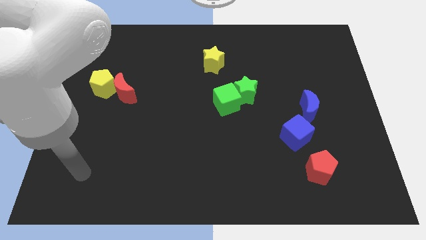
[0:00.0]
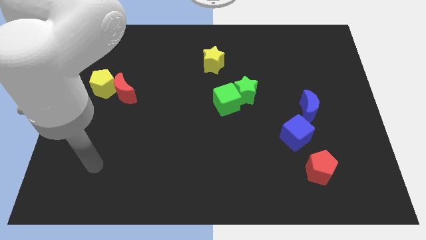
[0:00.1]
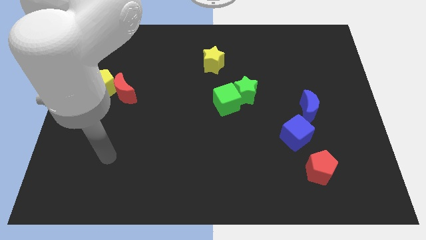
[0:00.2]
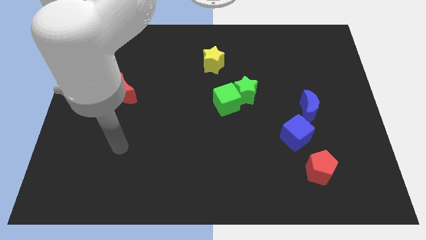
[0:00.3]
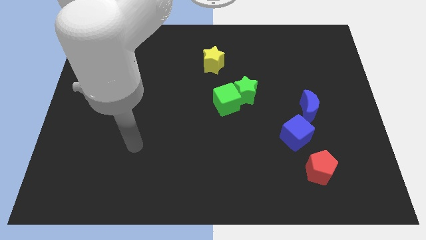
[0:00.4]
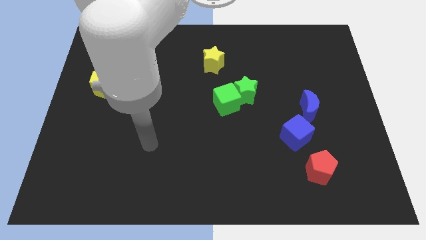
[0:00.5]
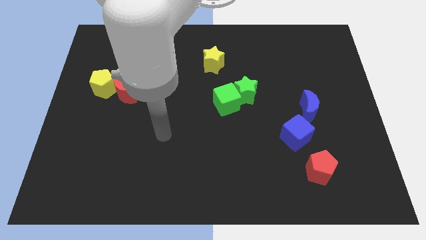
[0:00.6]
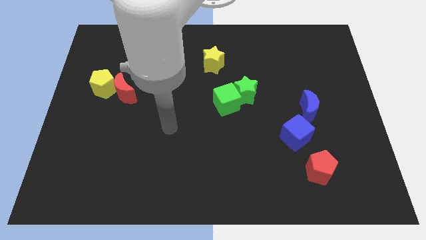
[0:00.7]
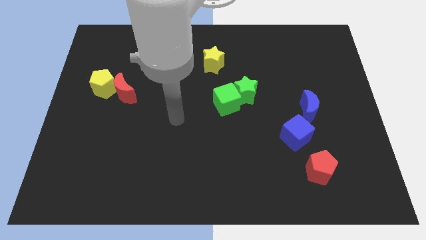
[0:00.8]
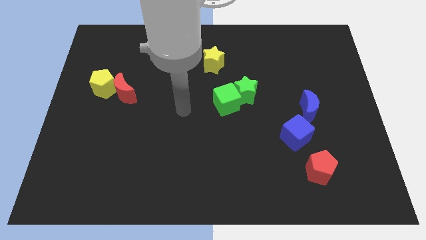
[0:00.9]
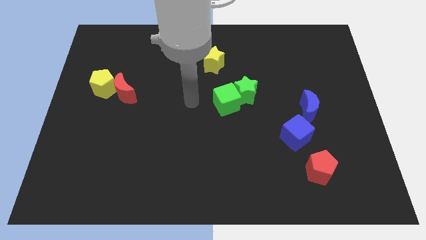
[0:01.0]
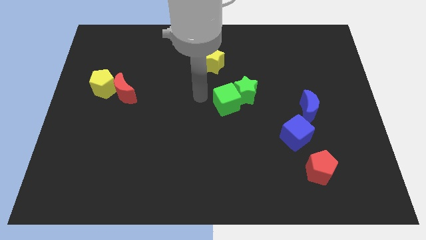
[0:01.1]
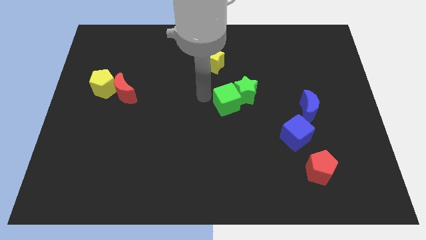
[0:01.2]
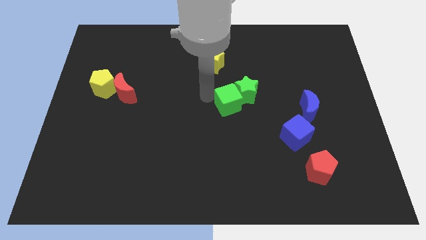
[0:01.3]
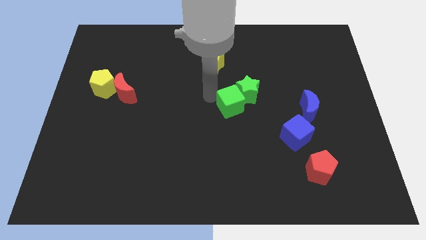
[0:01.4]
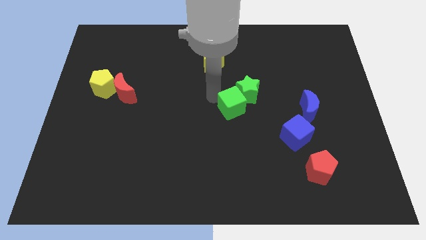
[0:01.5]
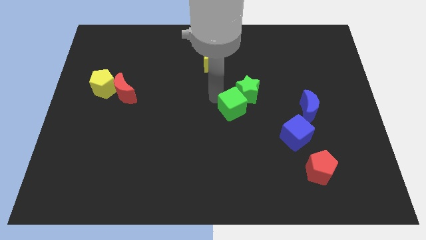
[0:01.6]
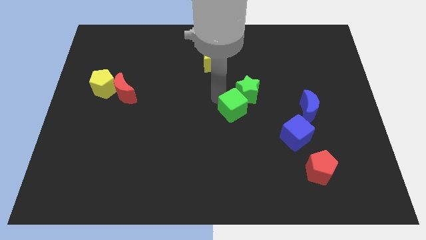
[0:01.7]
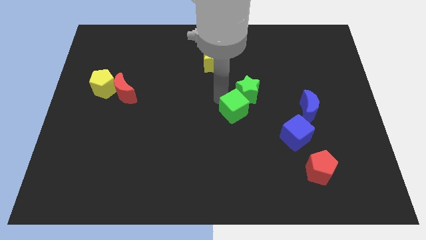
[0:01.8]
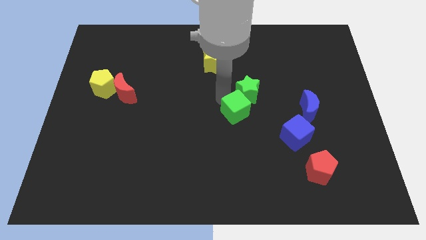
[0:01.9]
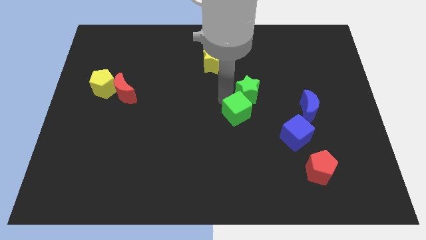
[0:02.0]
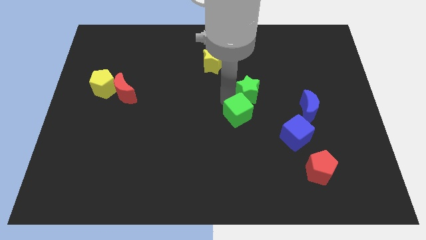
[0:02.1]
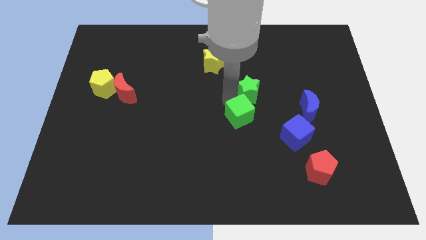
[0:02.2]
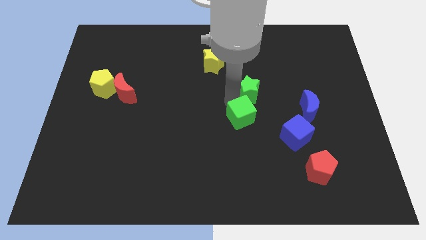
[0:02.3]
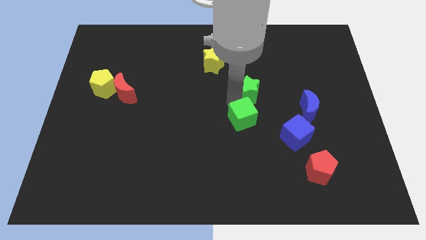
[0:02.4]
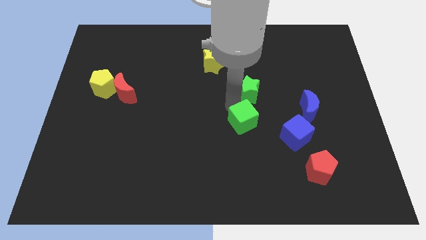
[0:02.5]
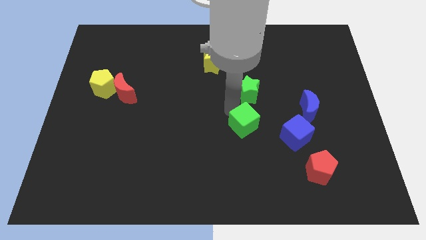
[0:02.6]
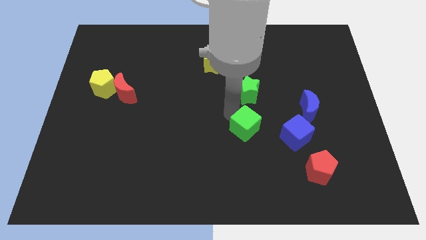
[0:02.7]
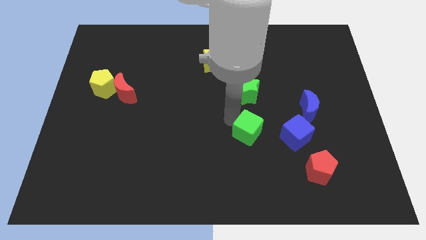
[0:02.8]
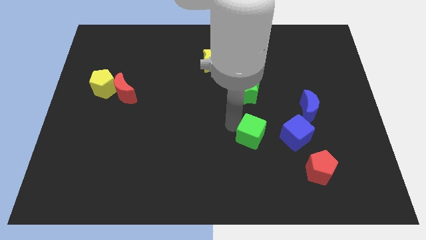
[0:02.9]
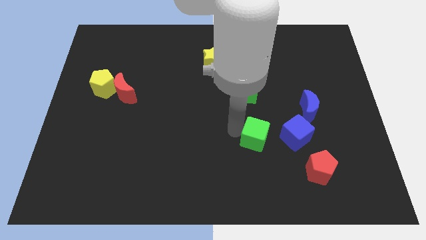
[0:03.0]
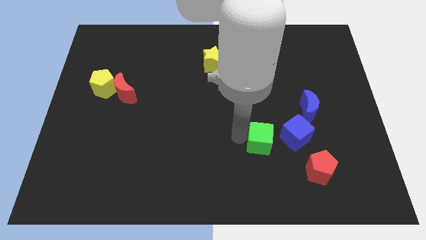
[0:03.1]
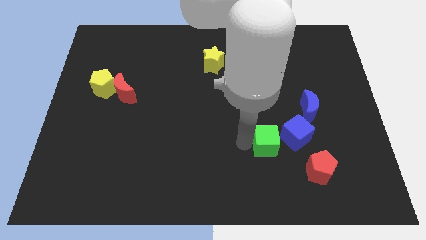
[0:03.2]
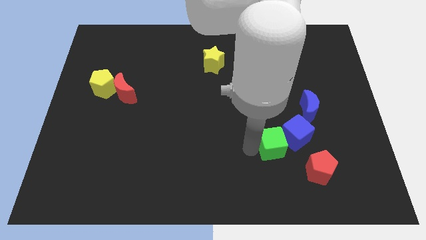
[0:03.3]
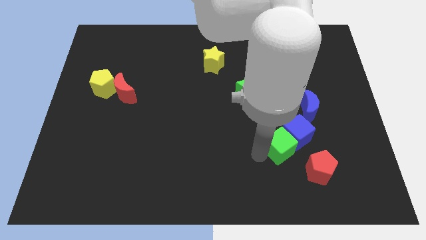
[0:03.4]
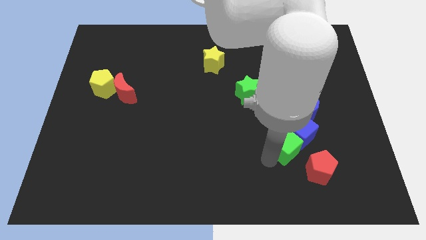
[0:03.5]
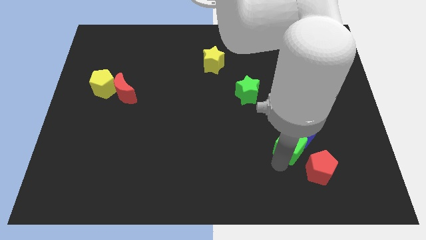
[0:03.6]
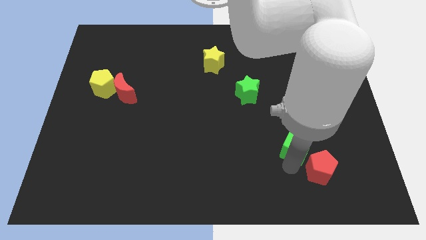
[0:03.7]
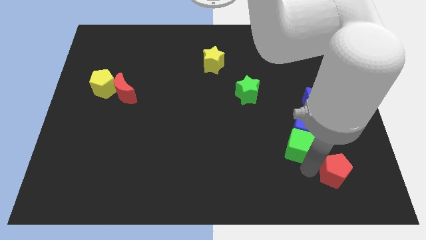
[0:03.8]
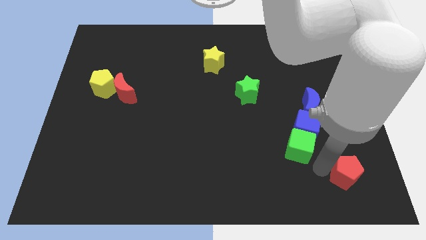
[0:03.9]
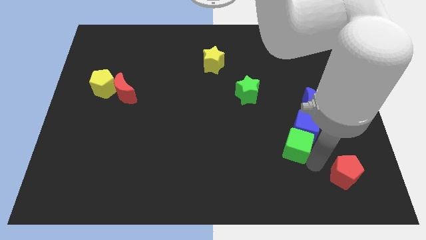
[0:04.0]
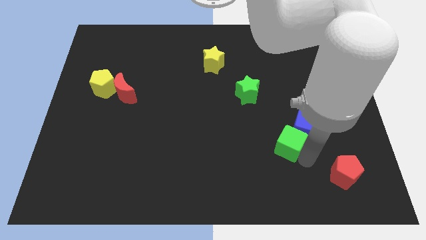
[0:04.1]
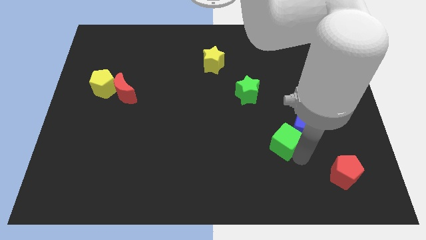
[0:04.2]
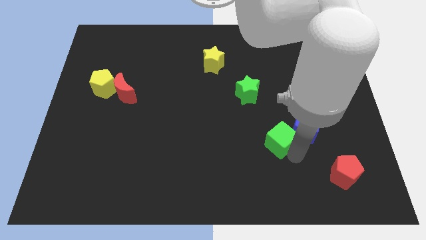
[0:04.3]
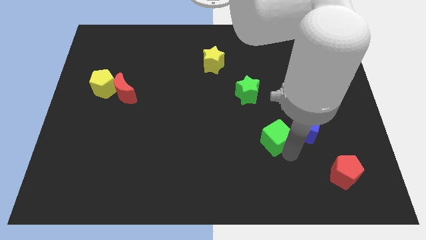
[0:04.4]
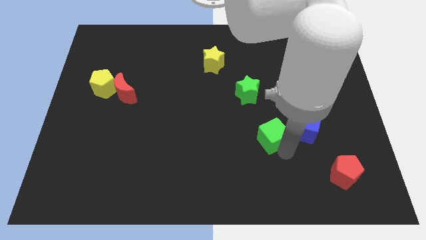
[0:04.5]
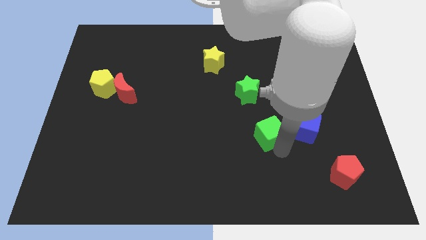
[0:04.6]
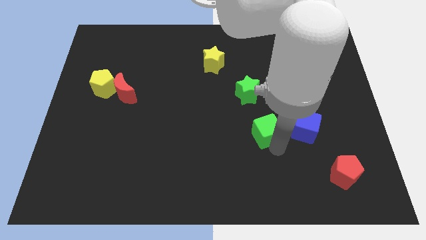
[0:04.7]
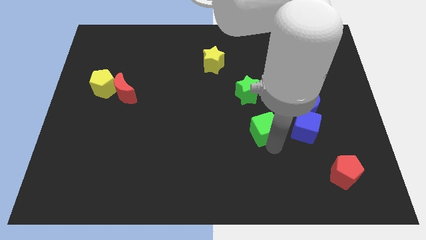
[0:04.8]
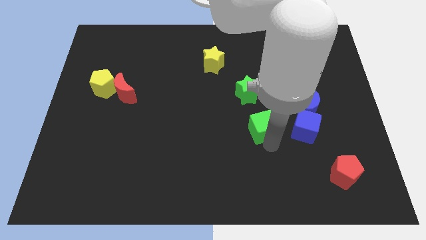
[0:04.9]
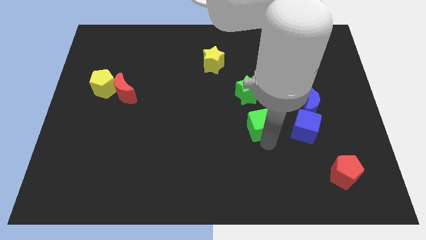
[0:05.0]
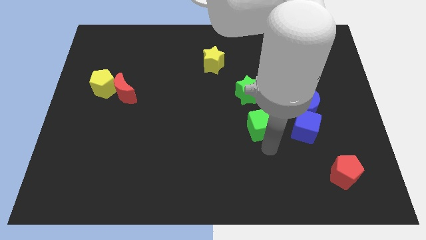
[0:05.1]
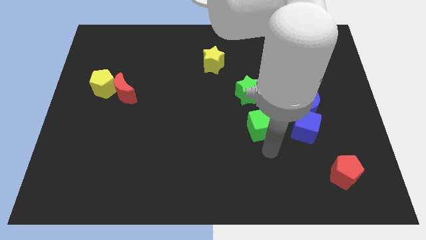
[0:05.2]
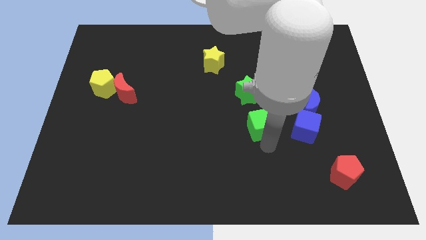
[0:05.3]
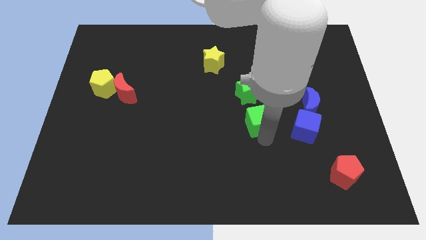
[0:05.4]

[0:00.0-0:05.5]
push the green cube diagonally down and to the right of the green star

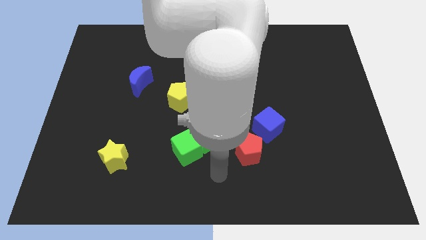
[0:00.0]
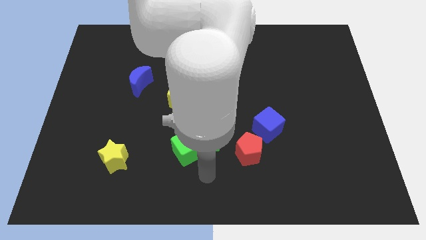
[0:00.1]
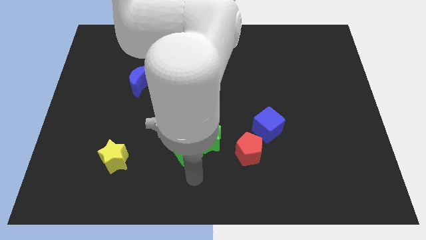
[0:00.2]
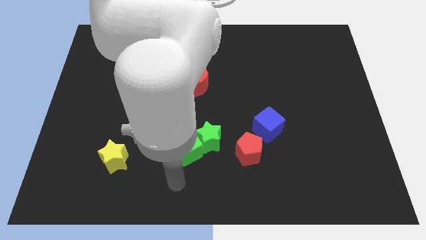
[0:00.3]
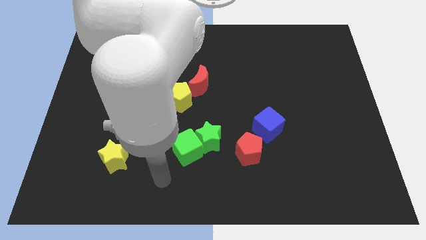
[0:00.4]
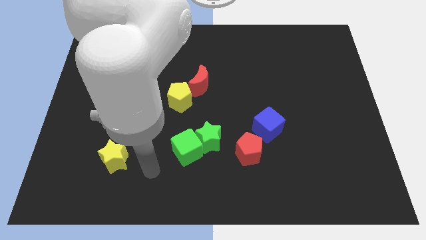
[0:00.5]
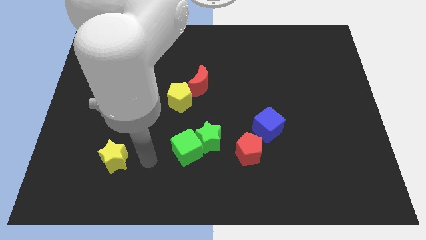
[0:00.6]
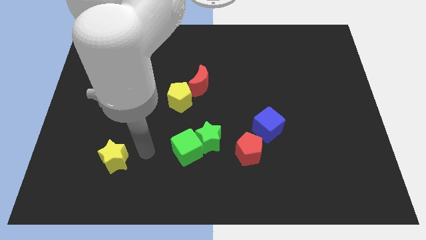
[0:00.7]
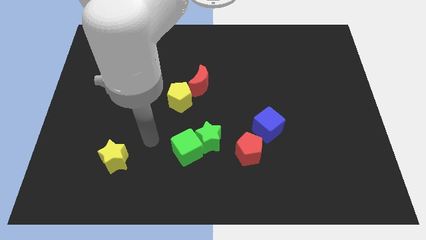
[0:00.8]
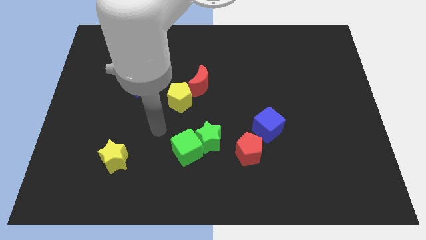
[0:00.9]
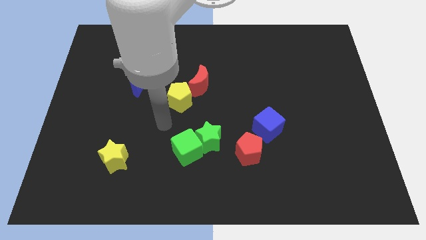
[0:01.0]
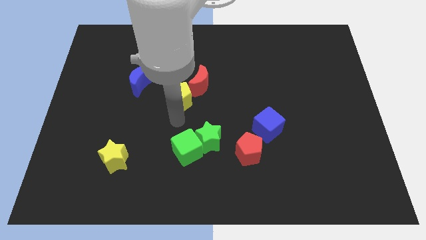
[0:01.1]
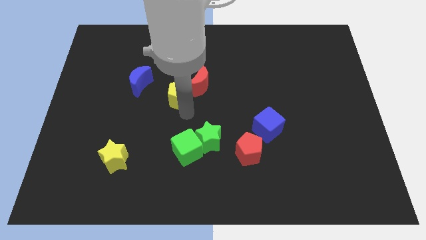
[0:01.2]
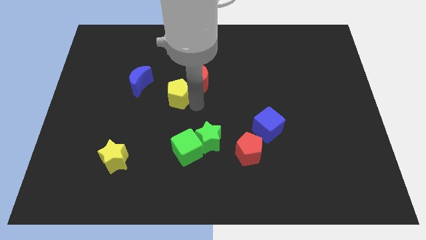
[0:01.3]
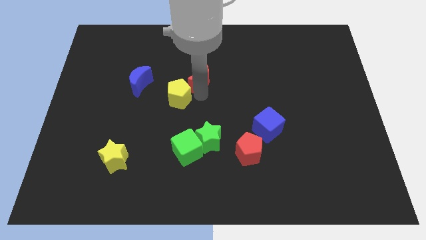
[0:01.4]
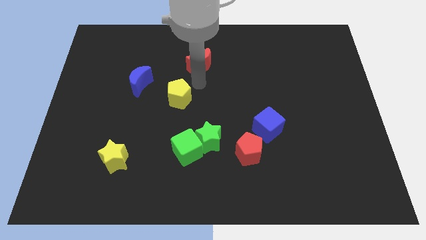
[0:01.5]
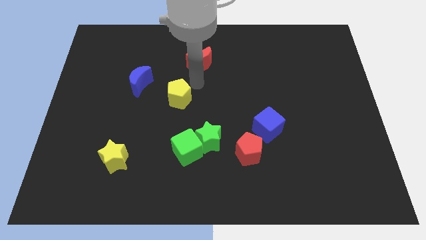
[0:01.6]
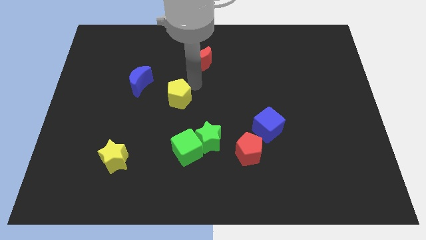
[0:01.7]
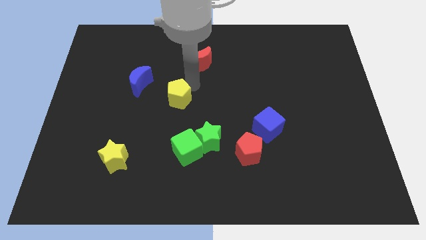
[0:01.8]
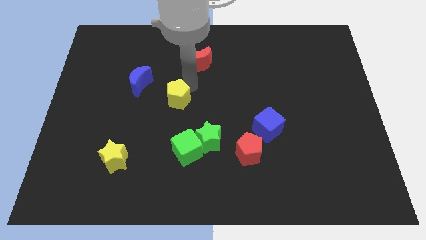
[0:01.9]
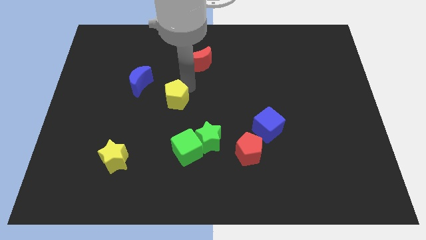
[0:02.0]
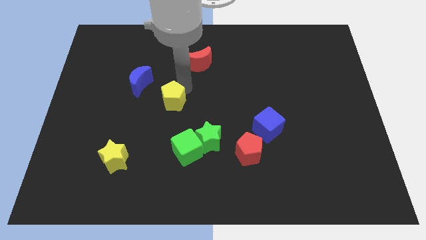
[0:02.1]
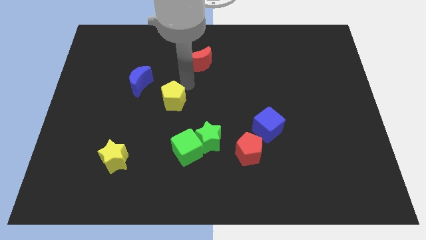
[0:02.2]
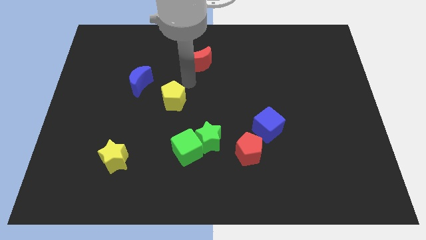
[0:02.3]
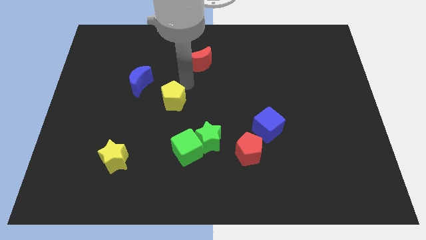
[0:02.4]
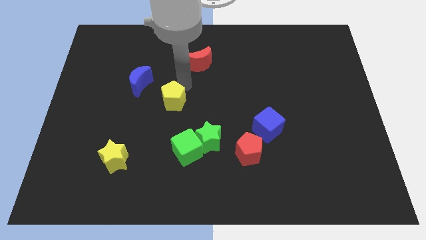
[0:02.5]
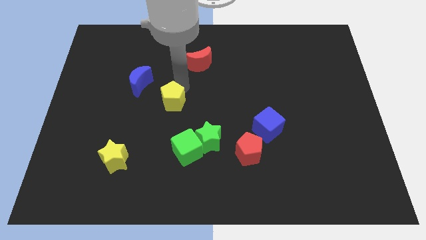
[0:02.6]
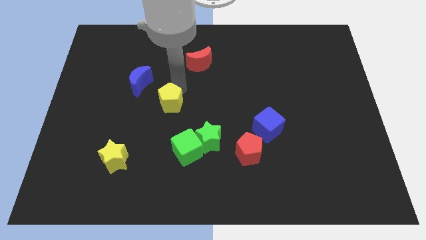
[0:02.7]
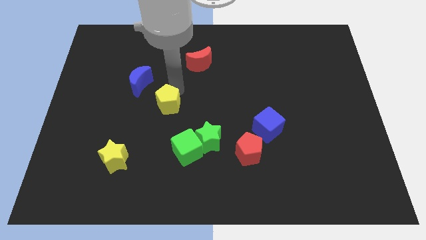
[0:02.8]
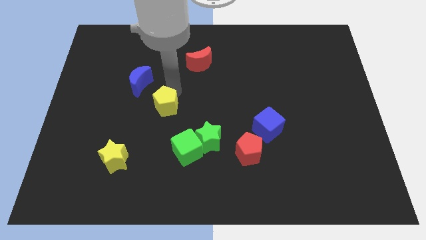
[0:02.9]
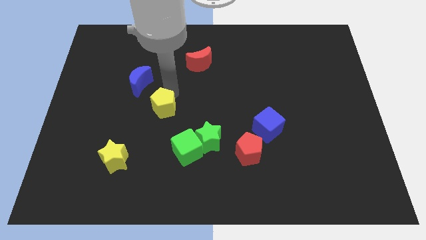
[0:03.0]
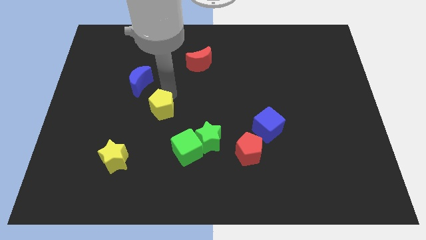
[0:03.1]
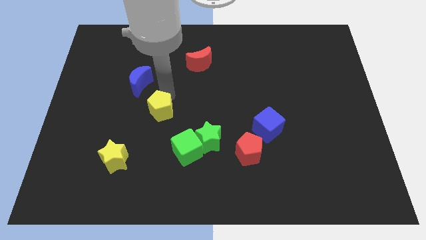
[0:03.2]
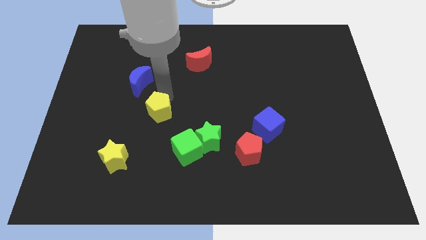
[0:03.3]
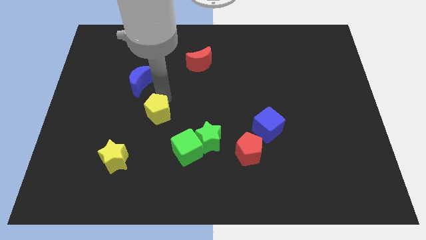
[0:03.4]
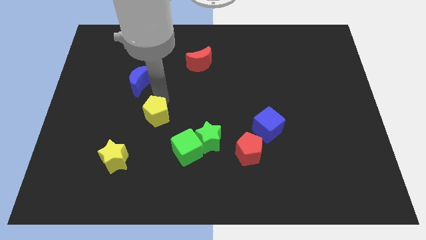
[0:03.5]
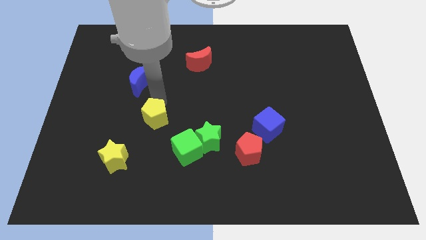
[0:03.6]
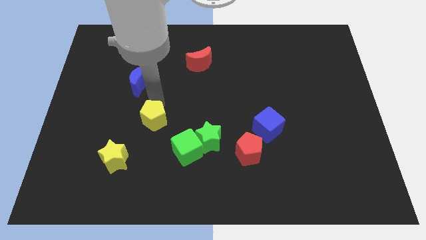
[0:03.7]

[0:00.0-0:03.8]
push the yellow pentagon diagonally up and to the right of the yellow star
